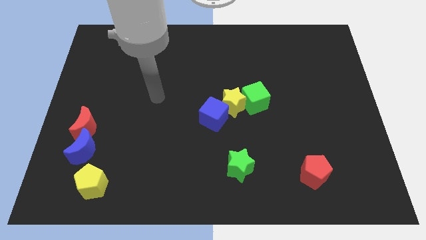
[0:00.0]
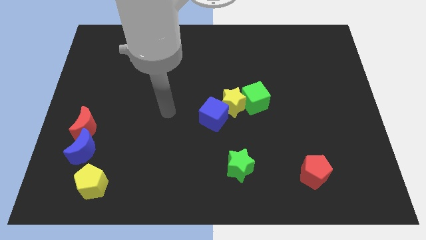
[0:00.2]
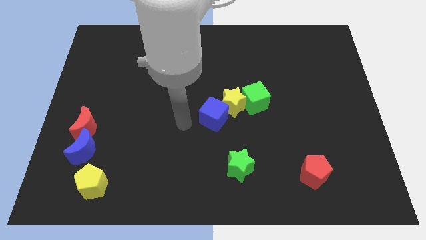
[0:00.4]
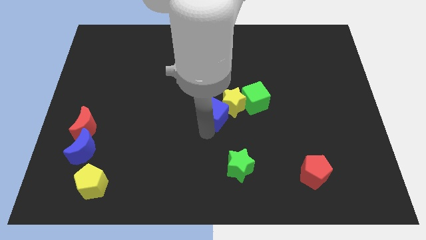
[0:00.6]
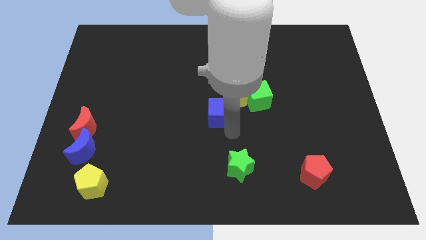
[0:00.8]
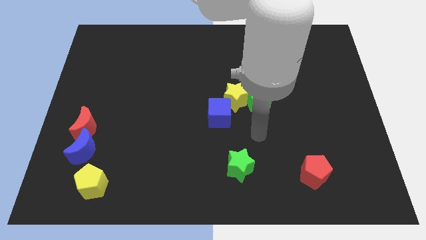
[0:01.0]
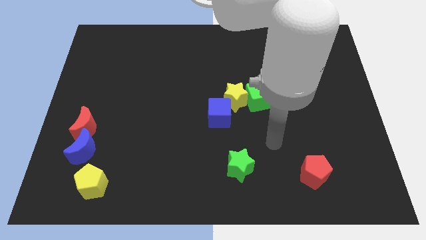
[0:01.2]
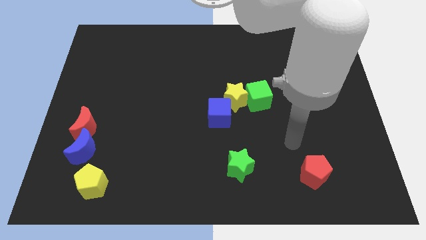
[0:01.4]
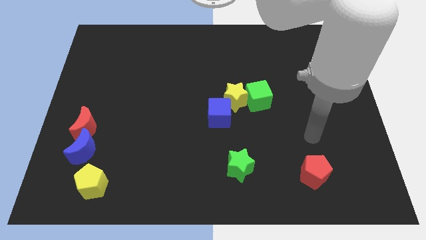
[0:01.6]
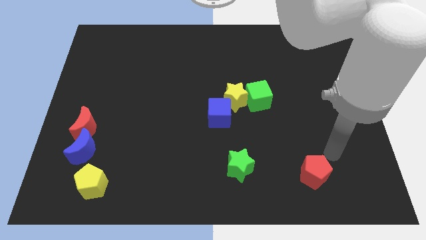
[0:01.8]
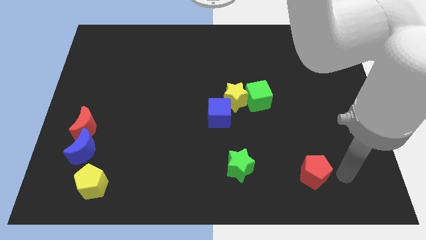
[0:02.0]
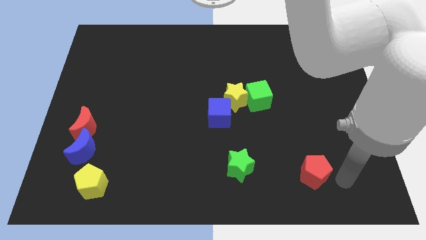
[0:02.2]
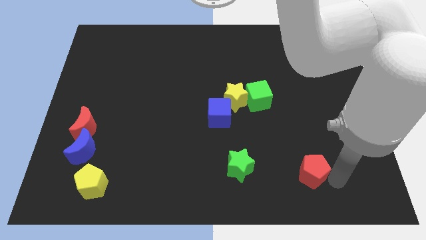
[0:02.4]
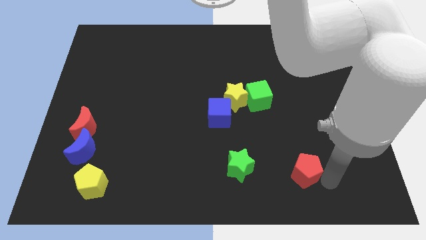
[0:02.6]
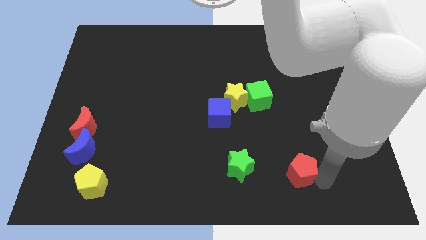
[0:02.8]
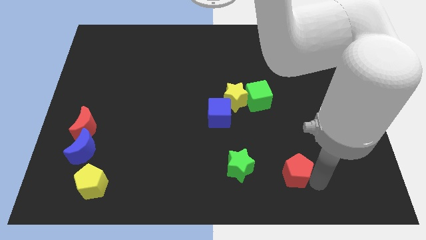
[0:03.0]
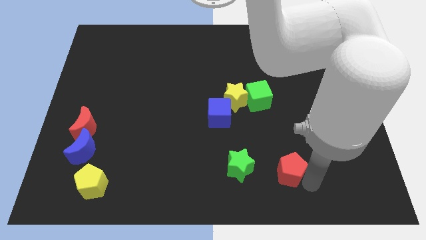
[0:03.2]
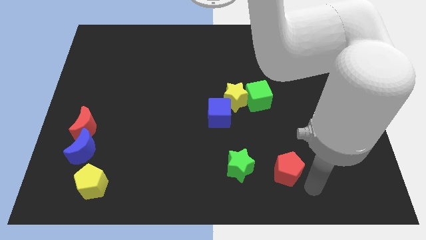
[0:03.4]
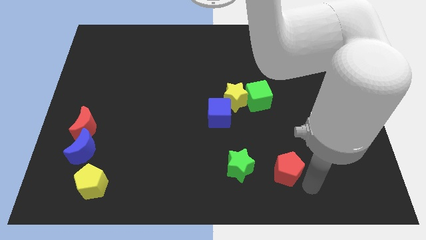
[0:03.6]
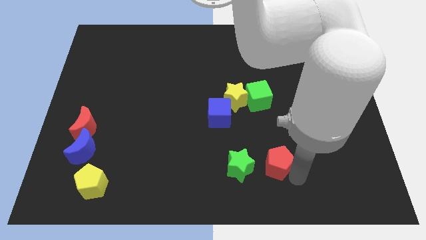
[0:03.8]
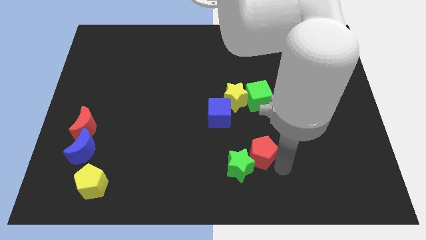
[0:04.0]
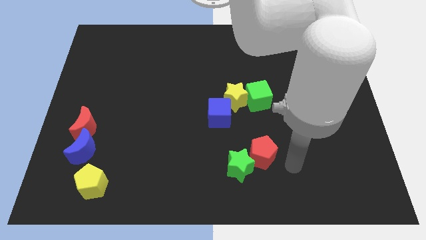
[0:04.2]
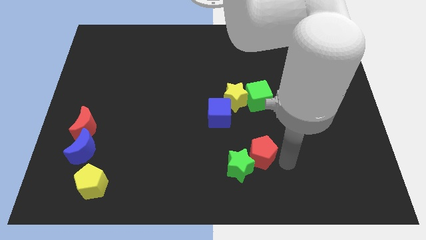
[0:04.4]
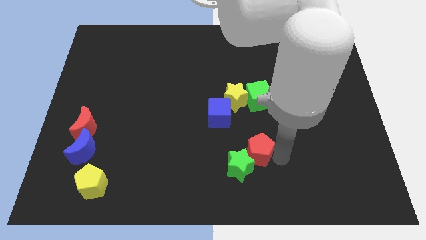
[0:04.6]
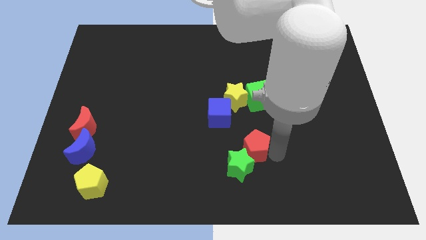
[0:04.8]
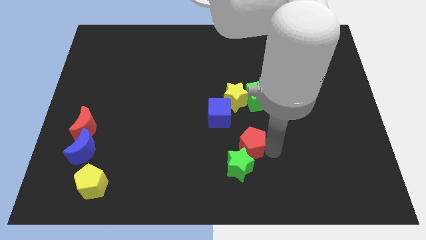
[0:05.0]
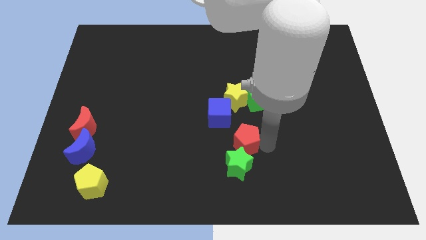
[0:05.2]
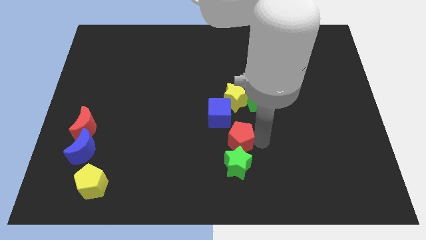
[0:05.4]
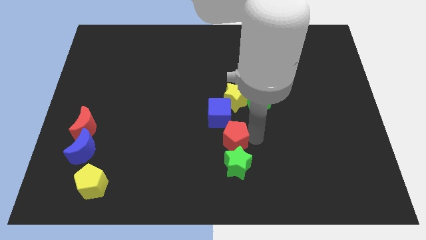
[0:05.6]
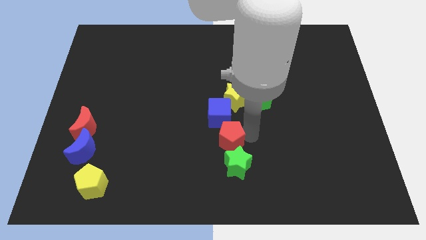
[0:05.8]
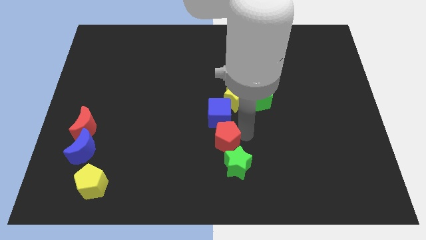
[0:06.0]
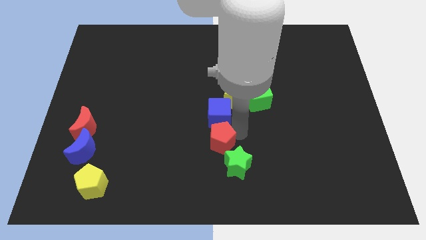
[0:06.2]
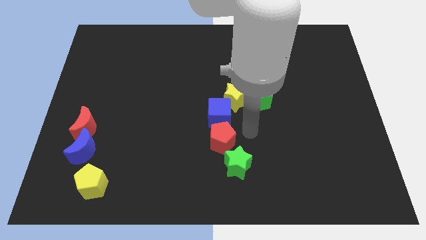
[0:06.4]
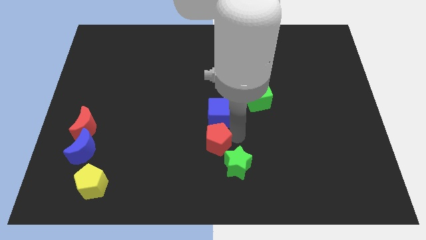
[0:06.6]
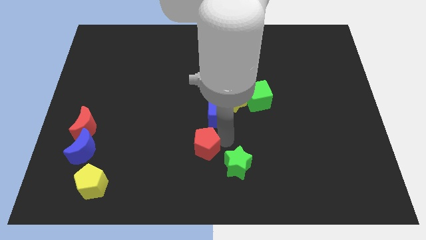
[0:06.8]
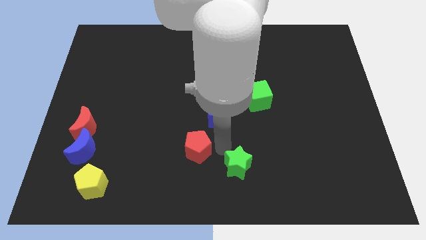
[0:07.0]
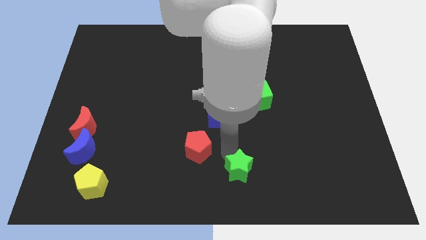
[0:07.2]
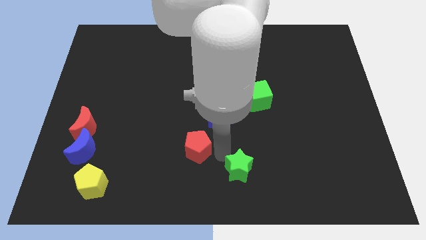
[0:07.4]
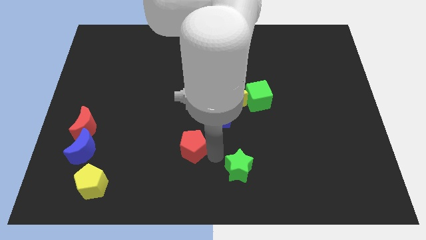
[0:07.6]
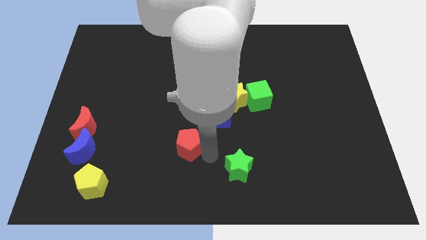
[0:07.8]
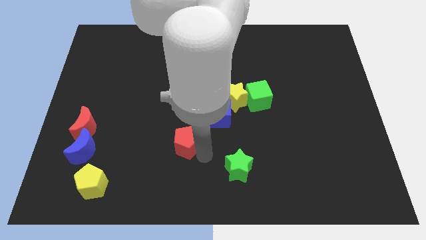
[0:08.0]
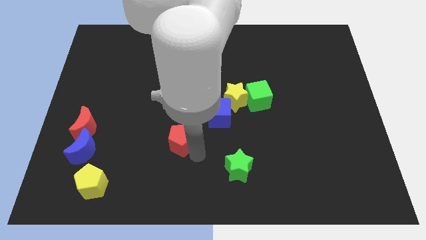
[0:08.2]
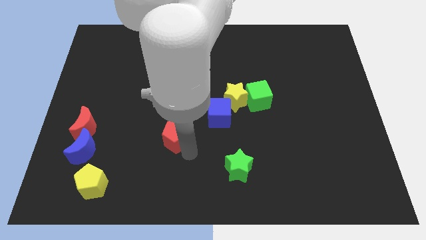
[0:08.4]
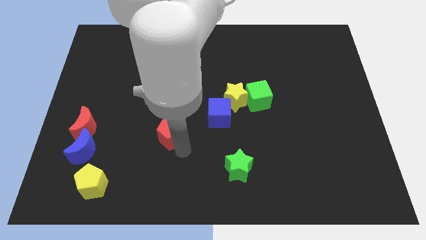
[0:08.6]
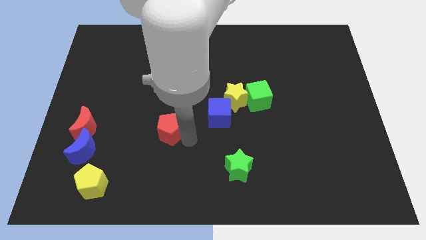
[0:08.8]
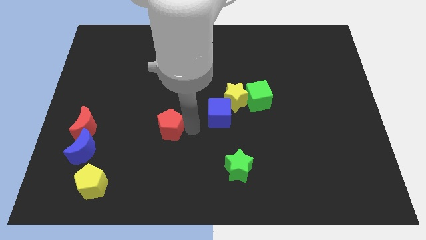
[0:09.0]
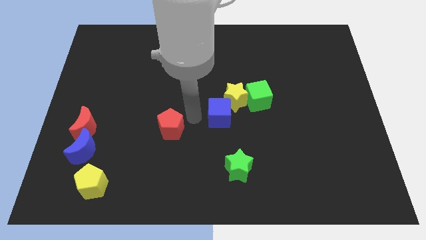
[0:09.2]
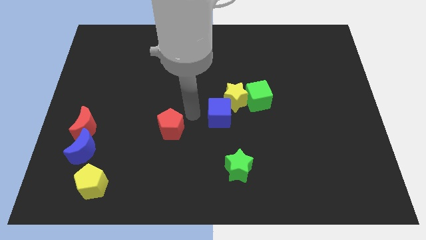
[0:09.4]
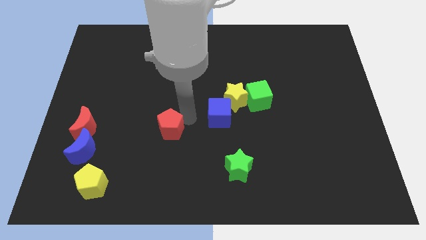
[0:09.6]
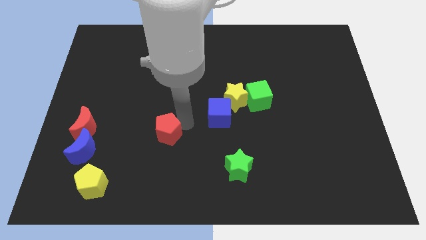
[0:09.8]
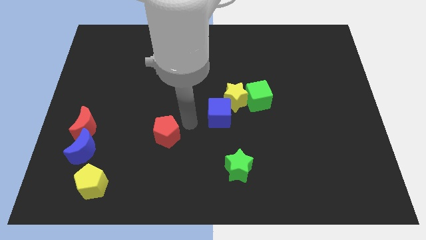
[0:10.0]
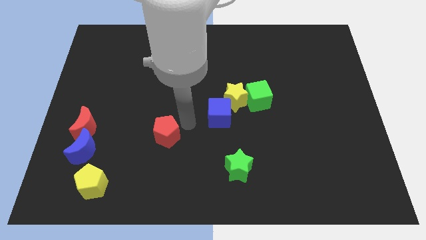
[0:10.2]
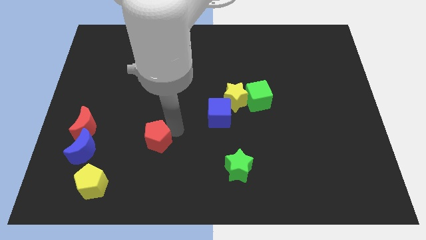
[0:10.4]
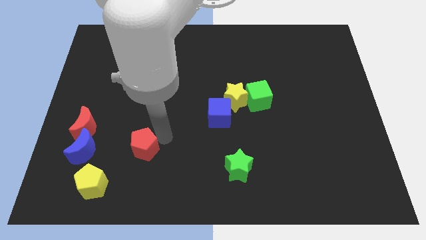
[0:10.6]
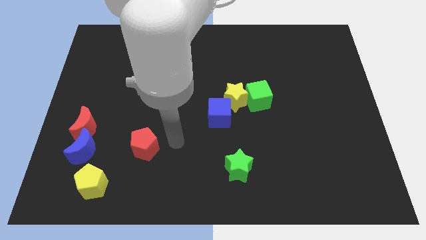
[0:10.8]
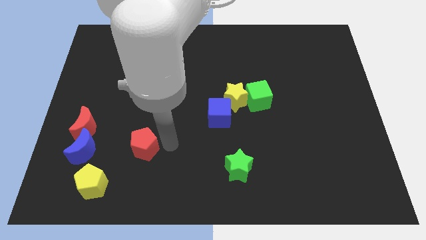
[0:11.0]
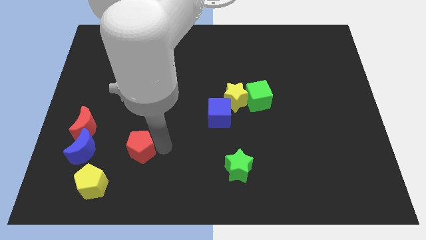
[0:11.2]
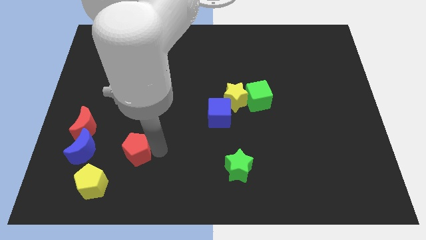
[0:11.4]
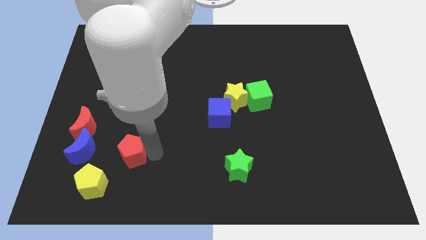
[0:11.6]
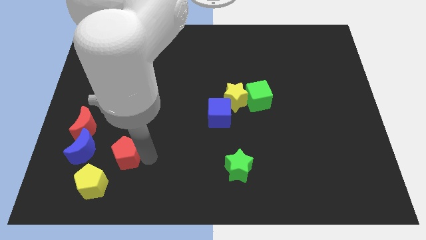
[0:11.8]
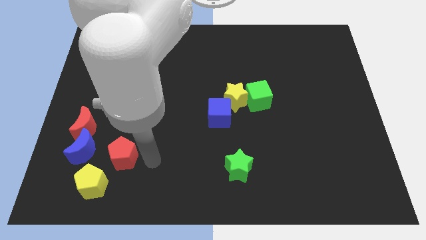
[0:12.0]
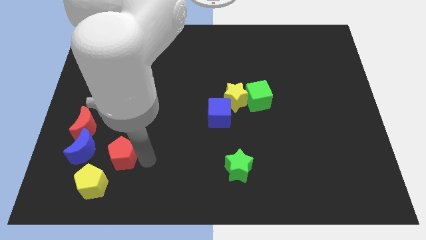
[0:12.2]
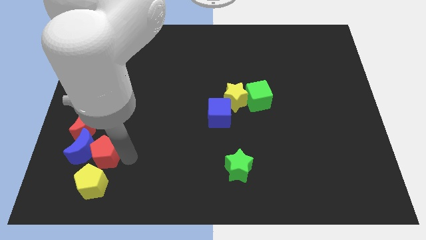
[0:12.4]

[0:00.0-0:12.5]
push the red pentagon to the blue moon

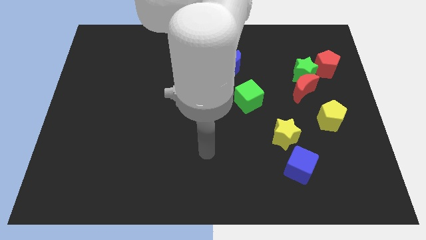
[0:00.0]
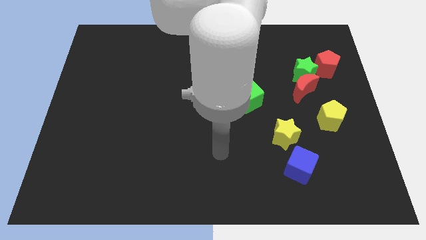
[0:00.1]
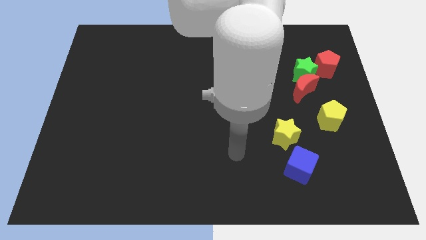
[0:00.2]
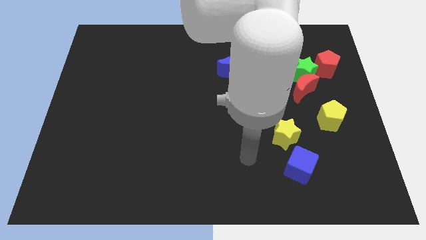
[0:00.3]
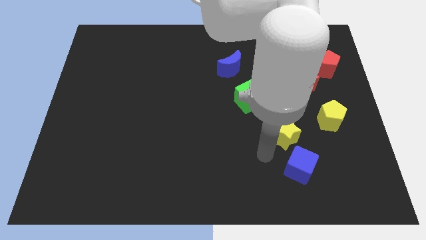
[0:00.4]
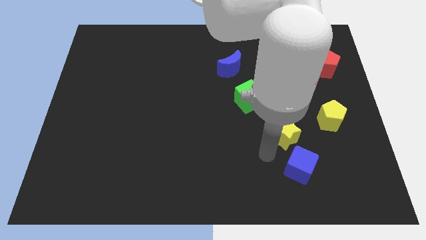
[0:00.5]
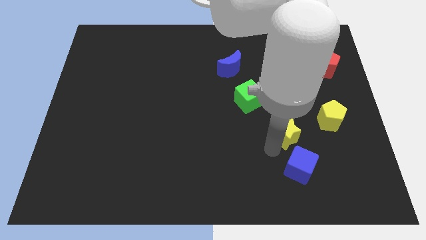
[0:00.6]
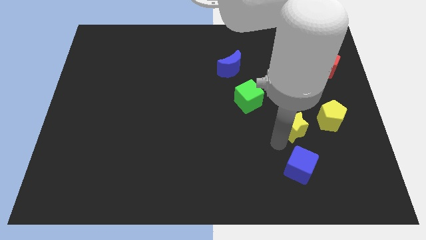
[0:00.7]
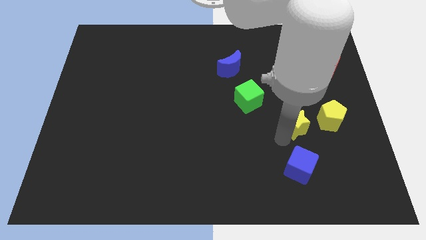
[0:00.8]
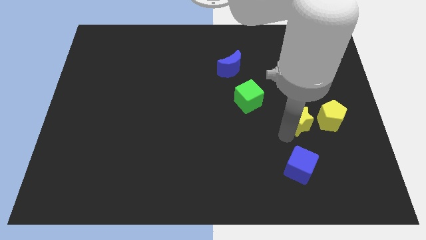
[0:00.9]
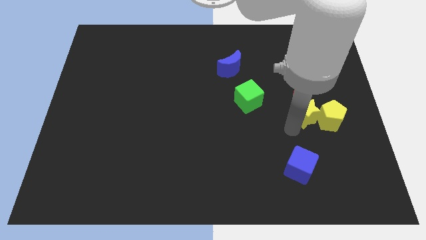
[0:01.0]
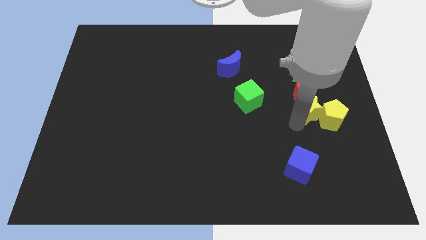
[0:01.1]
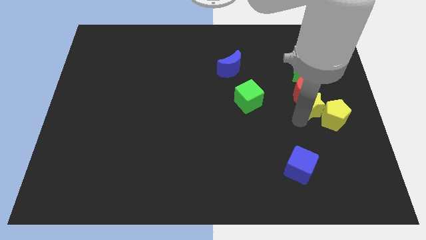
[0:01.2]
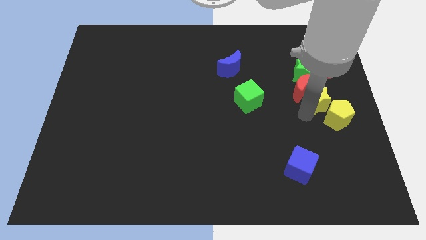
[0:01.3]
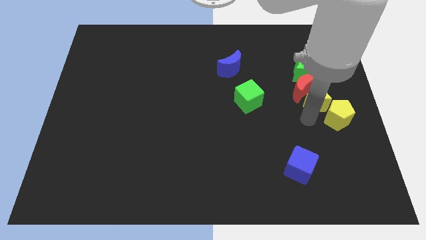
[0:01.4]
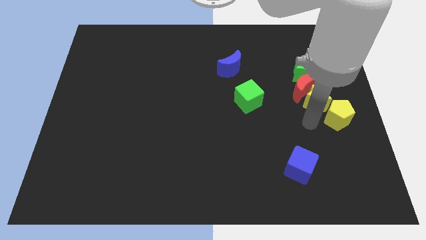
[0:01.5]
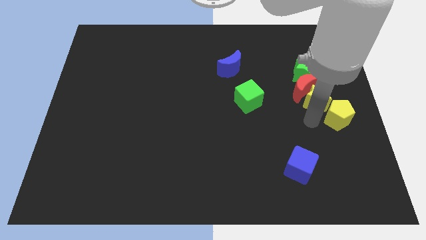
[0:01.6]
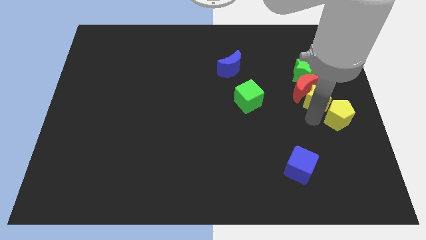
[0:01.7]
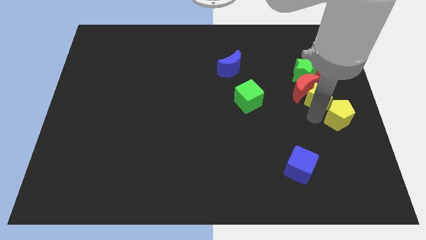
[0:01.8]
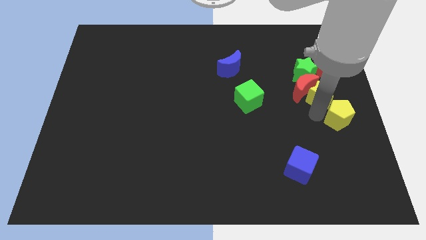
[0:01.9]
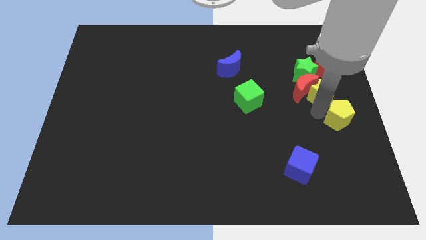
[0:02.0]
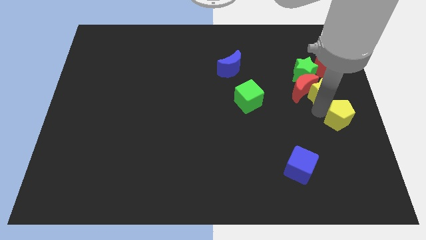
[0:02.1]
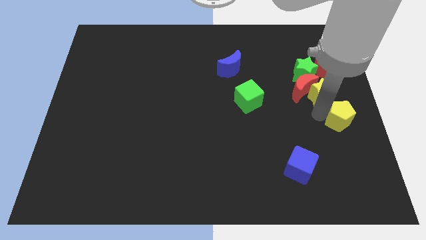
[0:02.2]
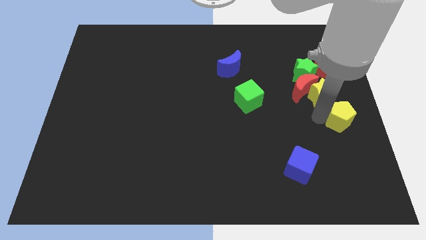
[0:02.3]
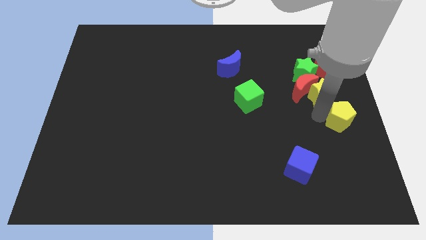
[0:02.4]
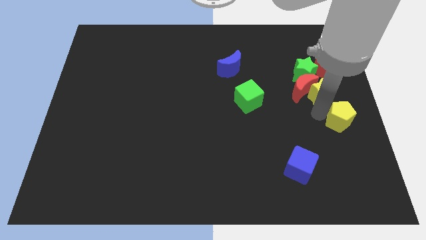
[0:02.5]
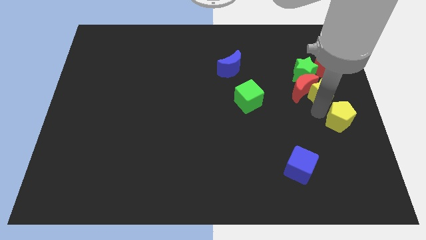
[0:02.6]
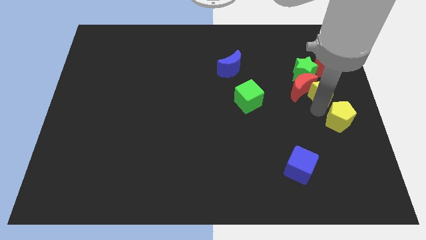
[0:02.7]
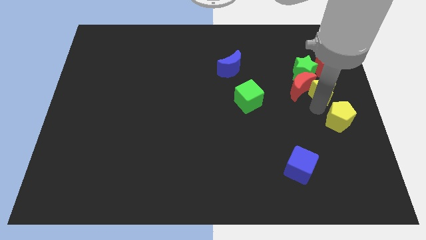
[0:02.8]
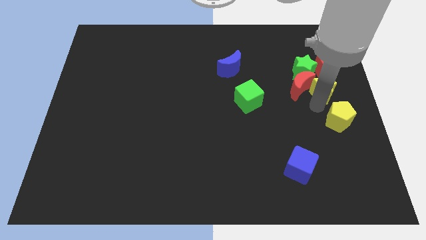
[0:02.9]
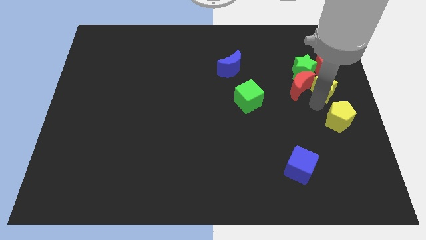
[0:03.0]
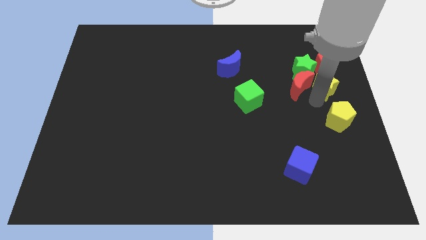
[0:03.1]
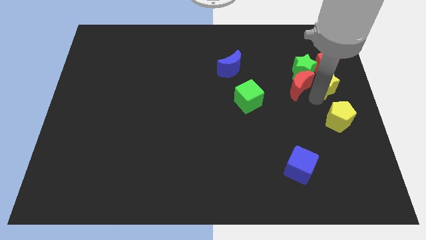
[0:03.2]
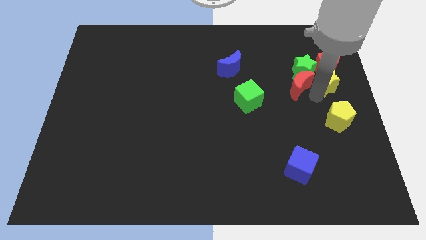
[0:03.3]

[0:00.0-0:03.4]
push the yellow star next to the red pentagon
